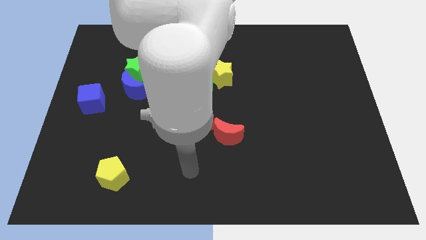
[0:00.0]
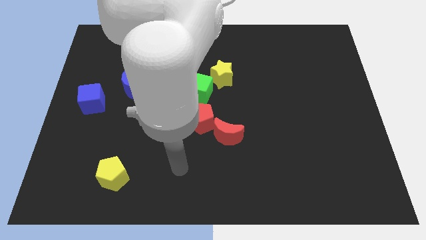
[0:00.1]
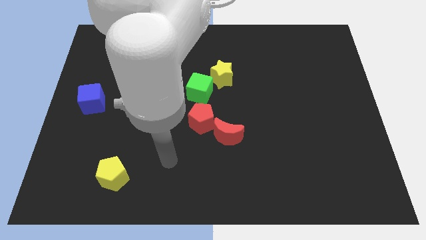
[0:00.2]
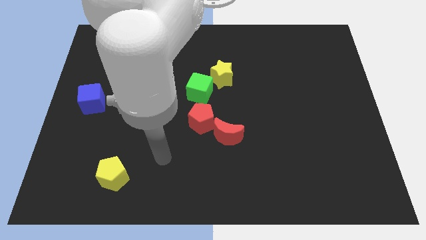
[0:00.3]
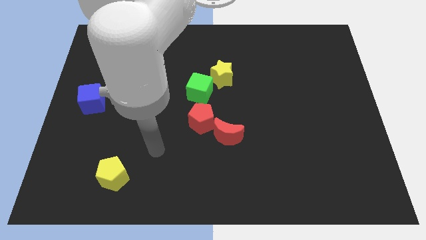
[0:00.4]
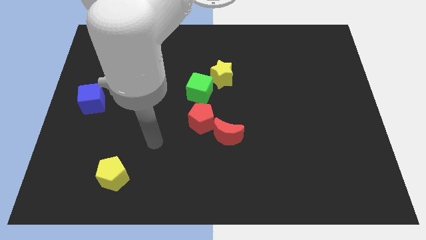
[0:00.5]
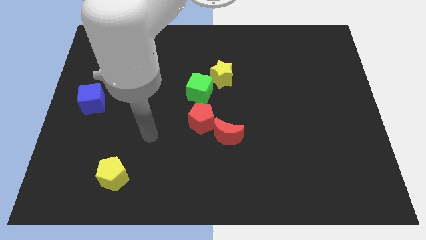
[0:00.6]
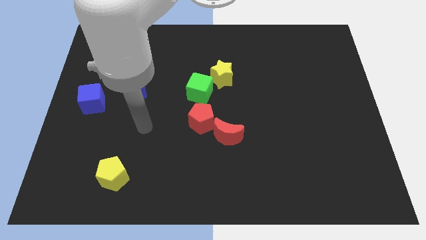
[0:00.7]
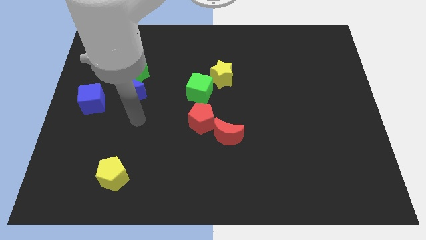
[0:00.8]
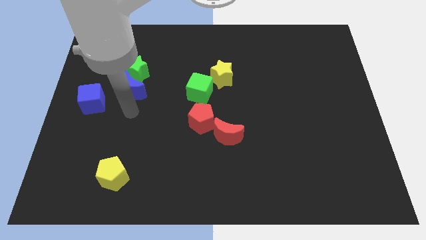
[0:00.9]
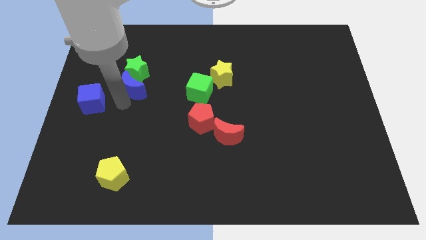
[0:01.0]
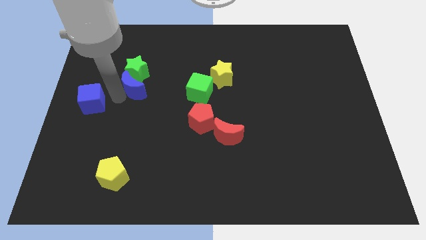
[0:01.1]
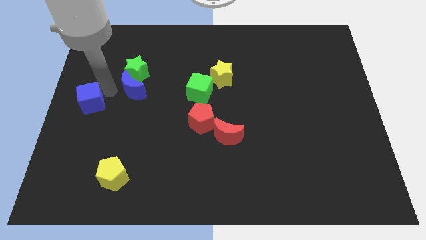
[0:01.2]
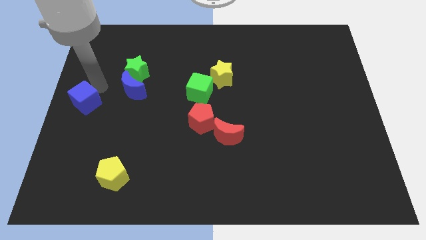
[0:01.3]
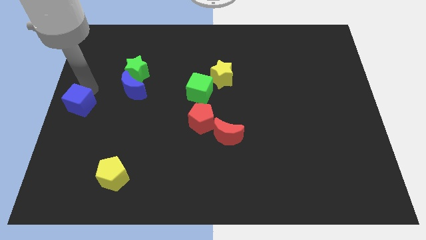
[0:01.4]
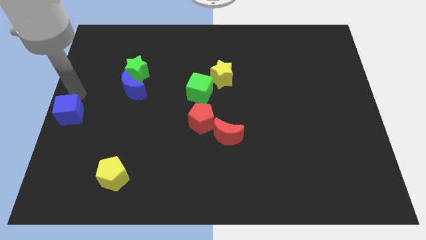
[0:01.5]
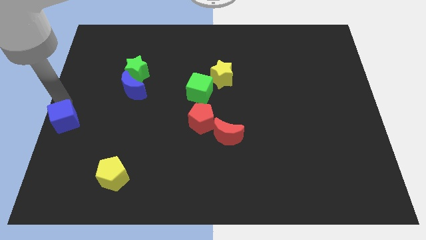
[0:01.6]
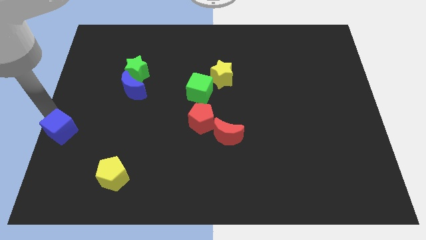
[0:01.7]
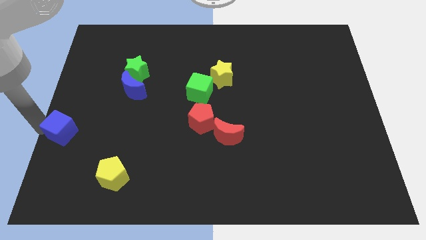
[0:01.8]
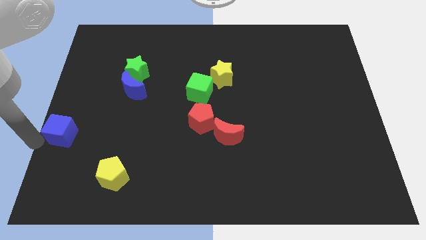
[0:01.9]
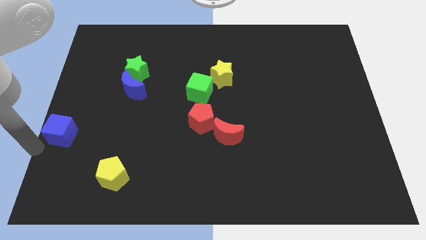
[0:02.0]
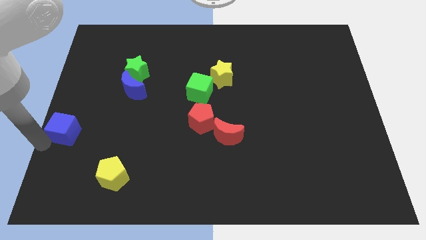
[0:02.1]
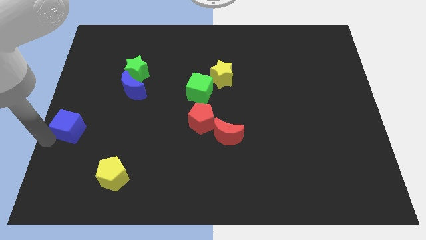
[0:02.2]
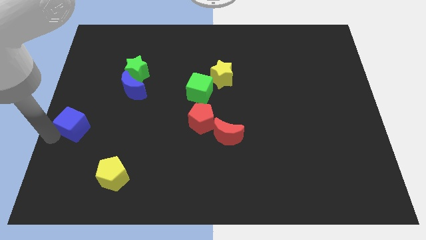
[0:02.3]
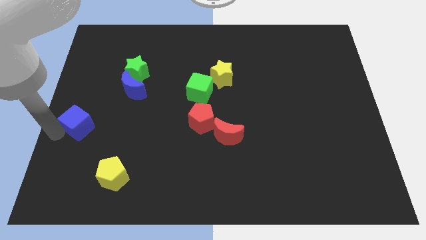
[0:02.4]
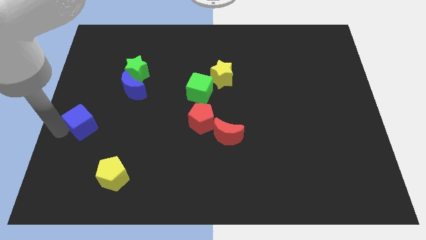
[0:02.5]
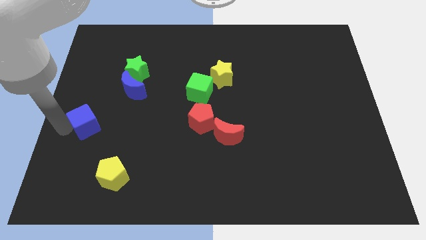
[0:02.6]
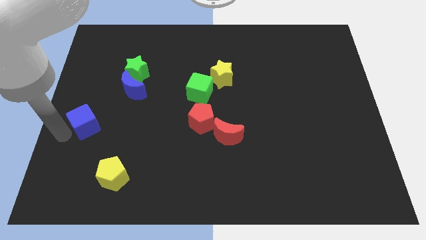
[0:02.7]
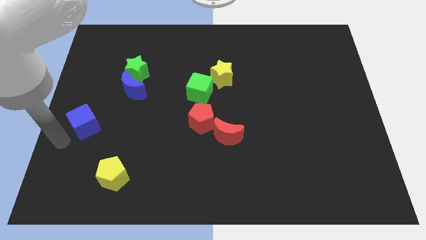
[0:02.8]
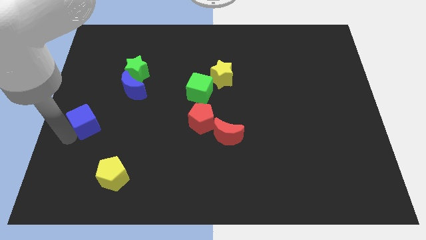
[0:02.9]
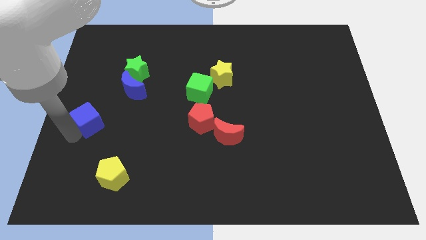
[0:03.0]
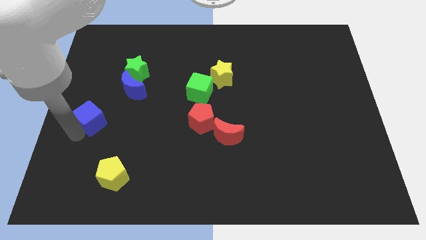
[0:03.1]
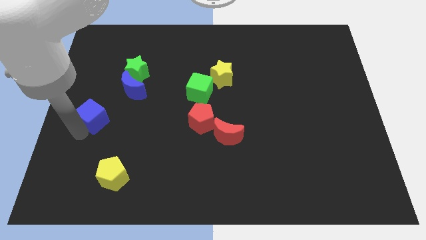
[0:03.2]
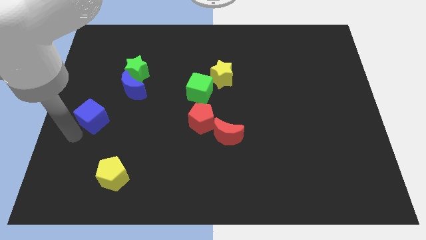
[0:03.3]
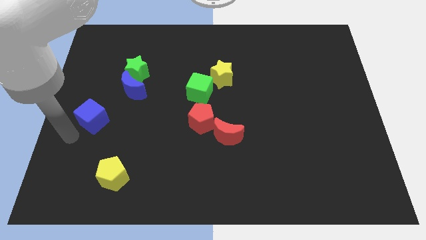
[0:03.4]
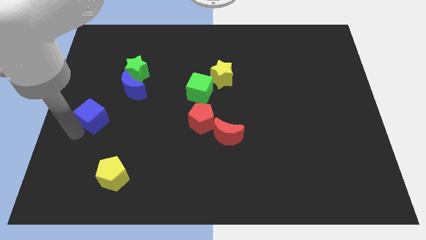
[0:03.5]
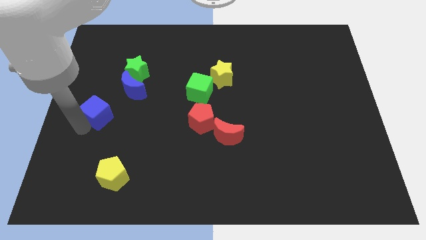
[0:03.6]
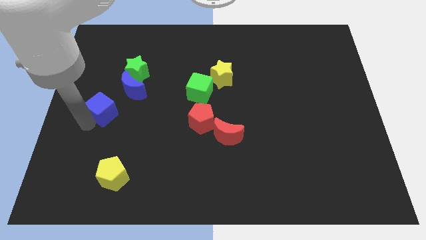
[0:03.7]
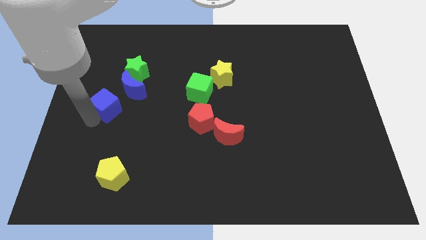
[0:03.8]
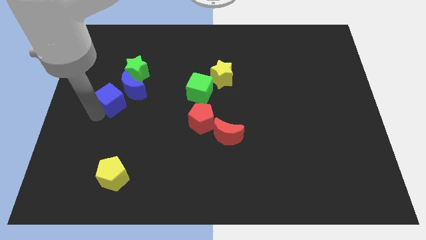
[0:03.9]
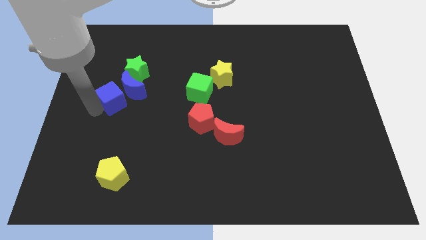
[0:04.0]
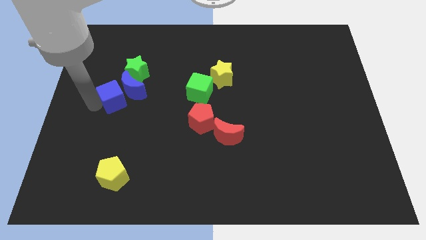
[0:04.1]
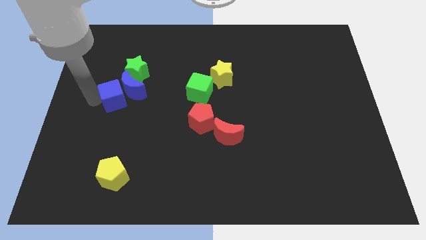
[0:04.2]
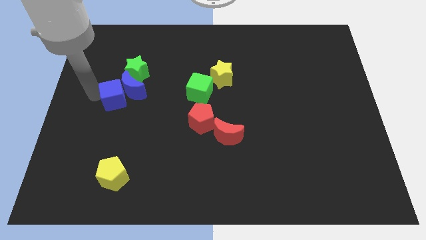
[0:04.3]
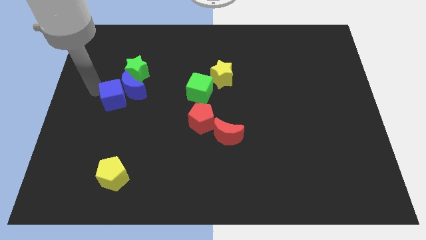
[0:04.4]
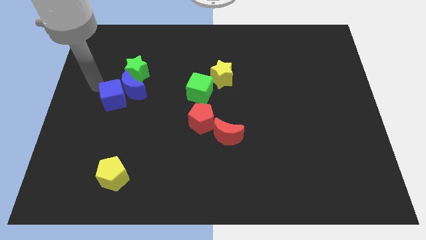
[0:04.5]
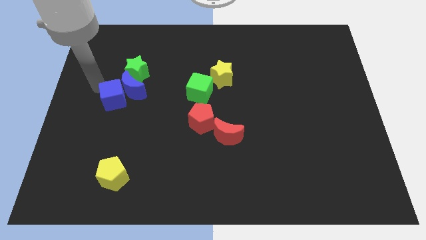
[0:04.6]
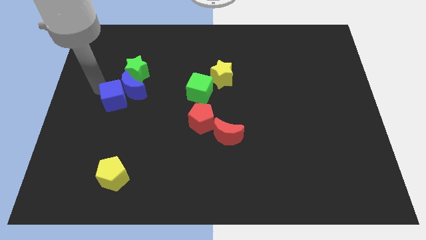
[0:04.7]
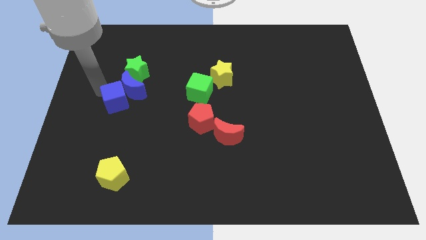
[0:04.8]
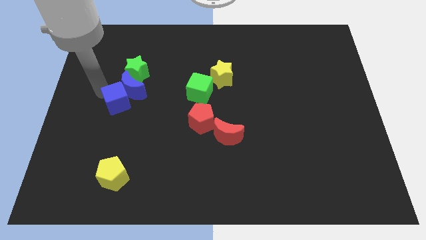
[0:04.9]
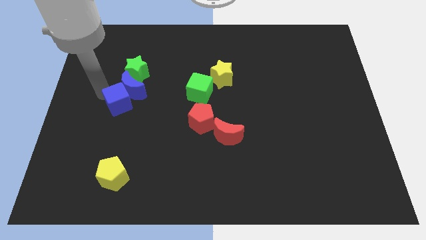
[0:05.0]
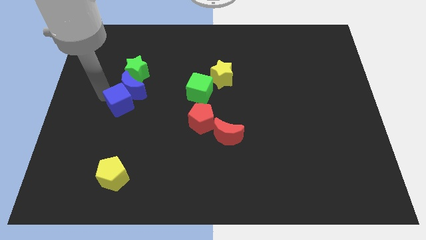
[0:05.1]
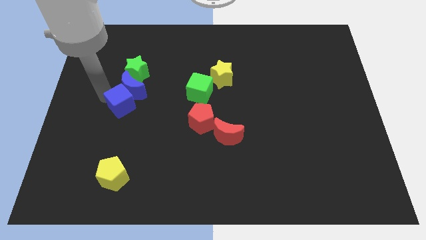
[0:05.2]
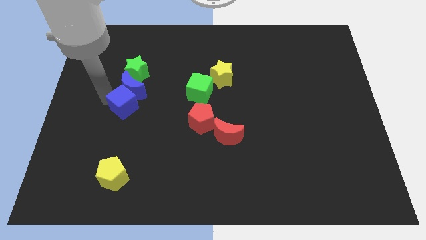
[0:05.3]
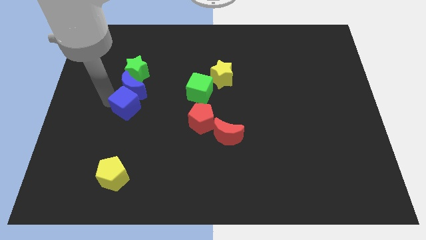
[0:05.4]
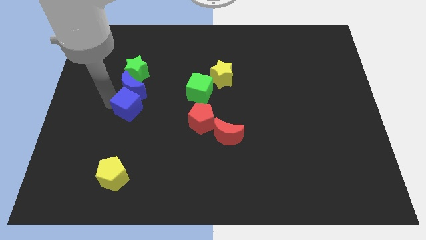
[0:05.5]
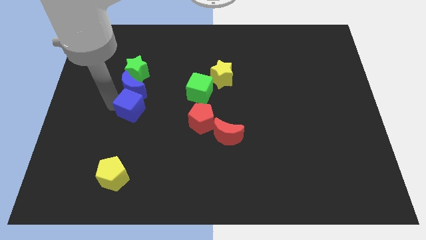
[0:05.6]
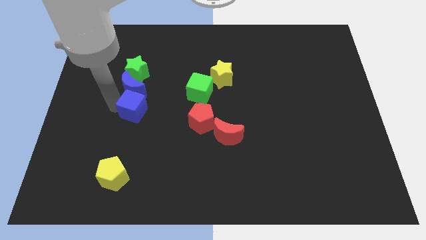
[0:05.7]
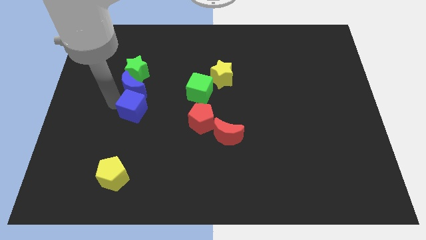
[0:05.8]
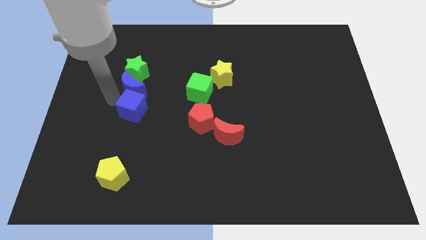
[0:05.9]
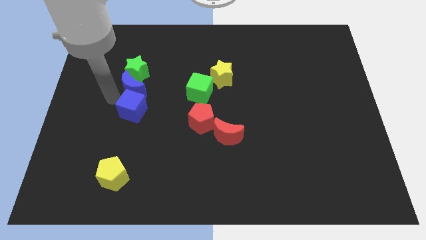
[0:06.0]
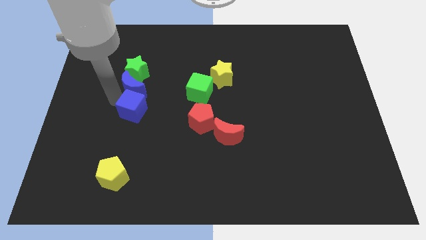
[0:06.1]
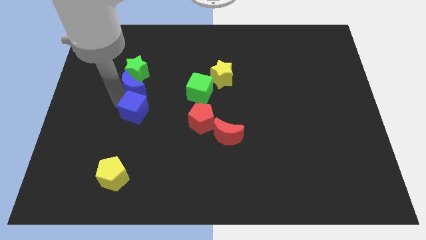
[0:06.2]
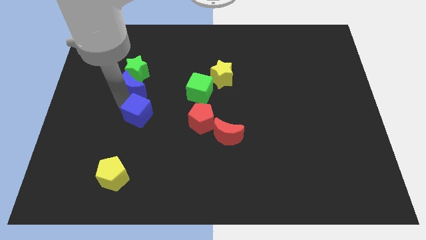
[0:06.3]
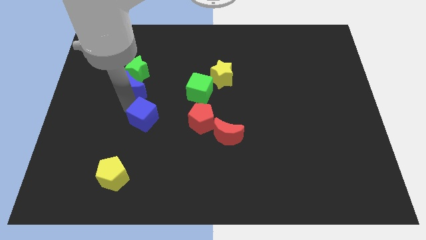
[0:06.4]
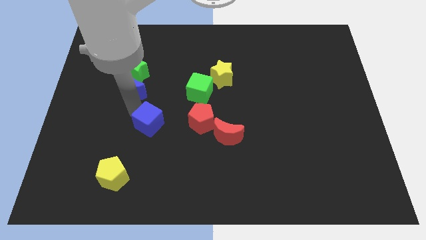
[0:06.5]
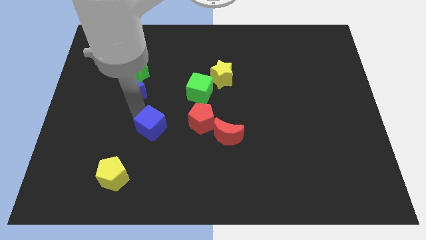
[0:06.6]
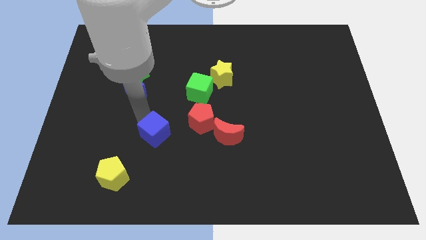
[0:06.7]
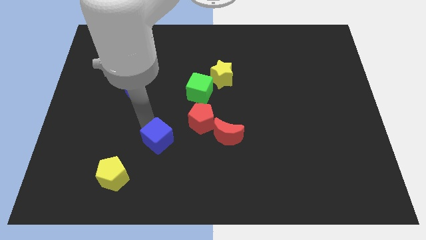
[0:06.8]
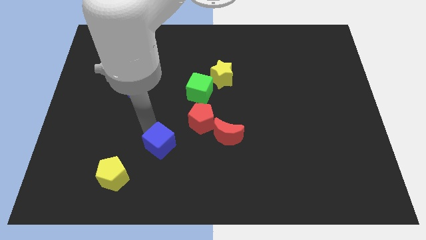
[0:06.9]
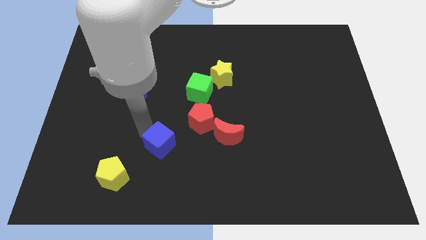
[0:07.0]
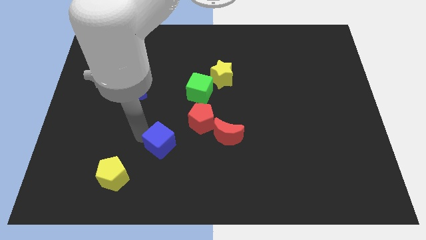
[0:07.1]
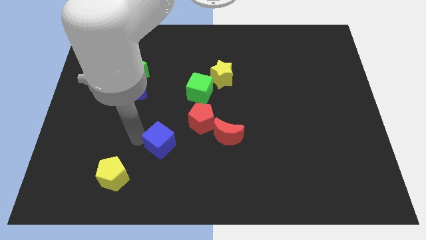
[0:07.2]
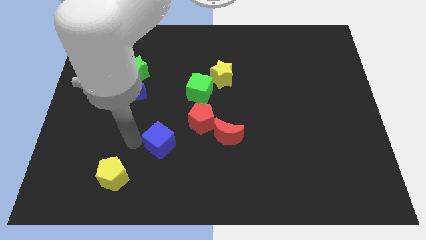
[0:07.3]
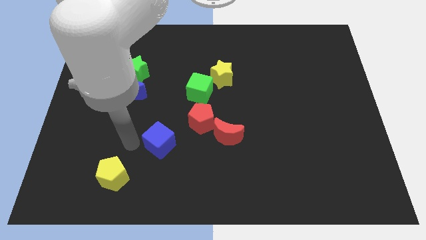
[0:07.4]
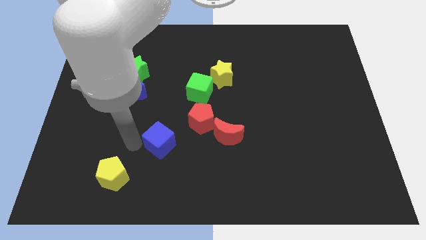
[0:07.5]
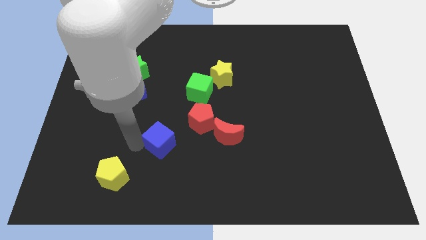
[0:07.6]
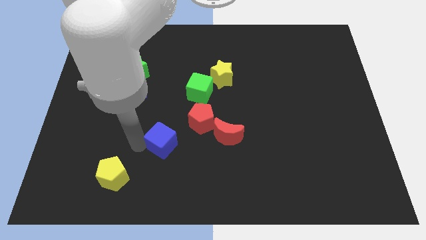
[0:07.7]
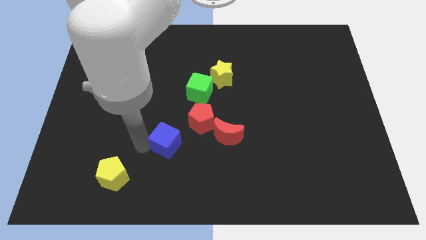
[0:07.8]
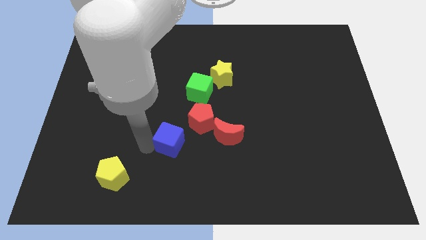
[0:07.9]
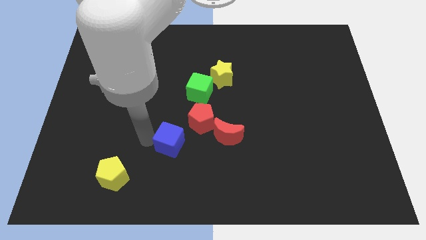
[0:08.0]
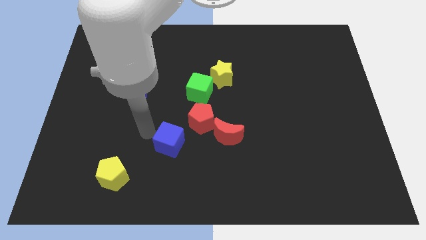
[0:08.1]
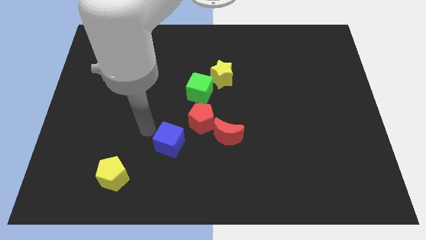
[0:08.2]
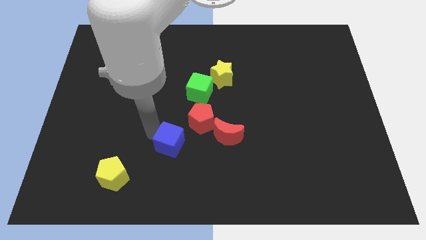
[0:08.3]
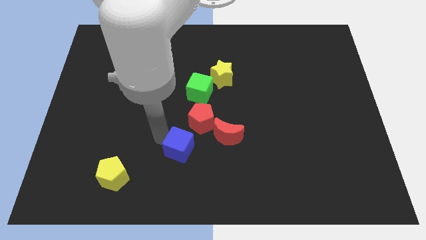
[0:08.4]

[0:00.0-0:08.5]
slide the blue cube below the red pentagon
